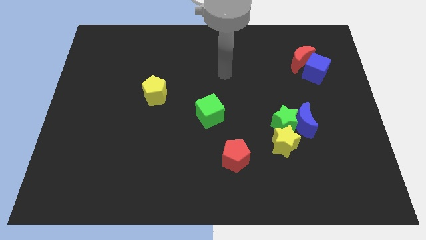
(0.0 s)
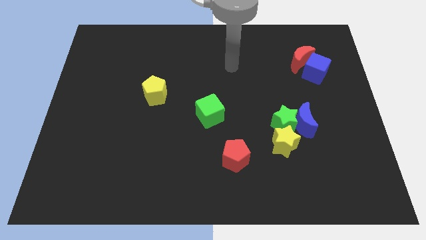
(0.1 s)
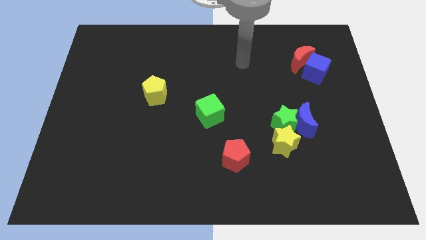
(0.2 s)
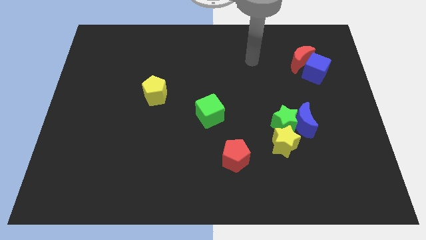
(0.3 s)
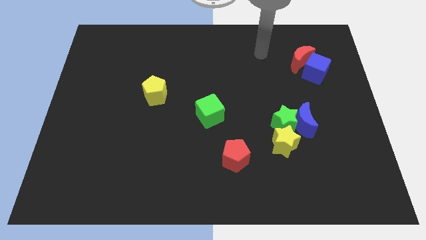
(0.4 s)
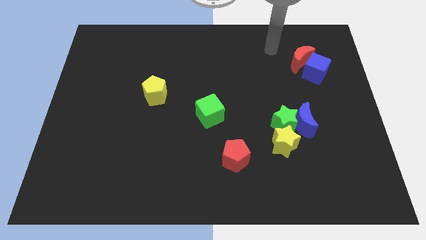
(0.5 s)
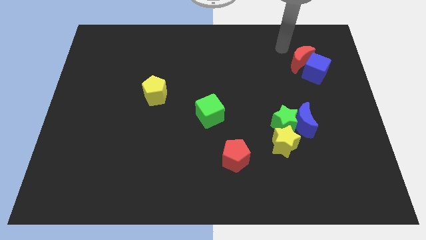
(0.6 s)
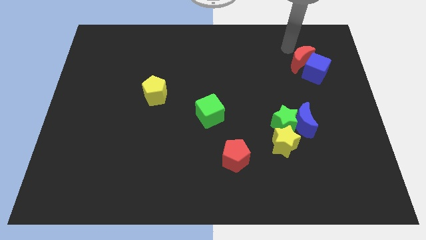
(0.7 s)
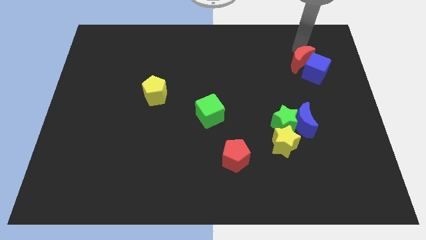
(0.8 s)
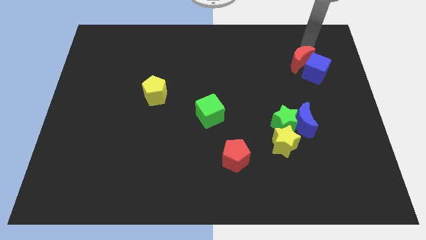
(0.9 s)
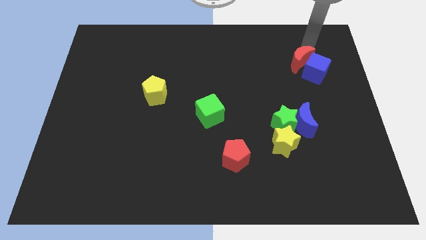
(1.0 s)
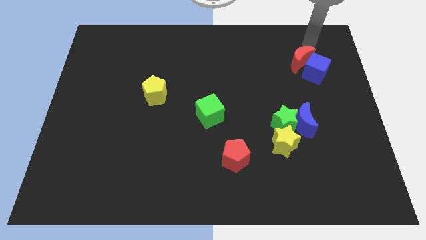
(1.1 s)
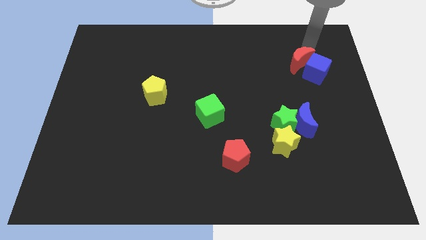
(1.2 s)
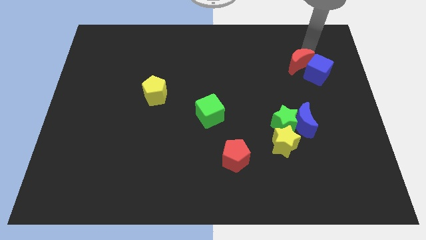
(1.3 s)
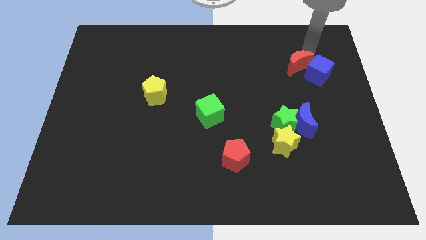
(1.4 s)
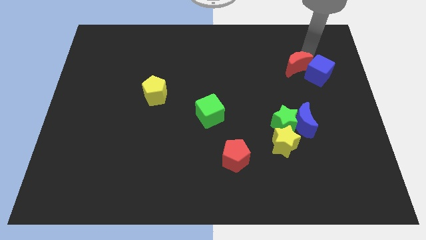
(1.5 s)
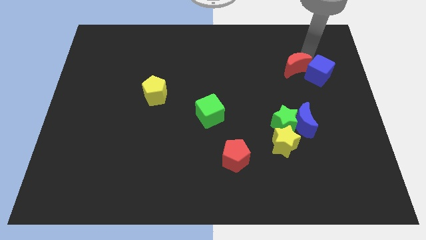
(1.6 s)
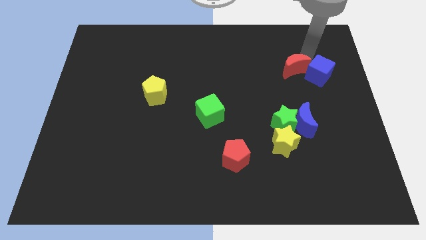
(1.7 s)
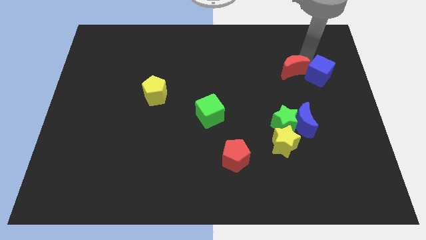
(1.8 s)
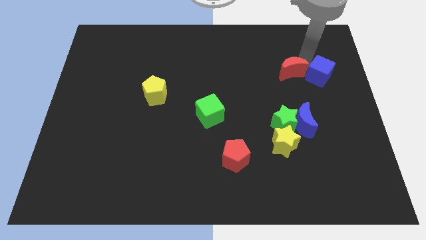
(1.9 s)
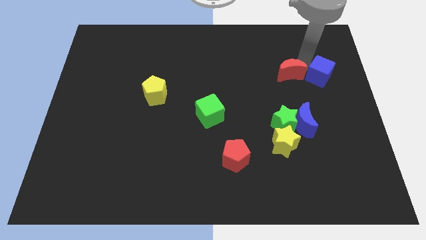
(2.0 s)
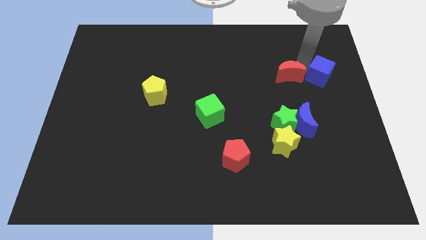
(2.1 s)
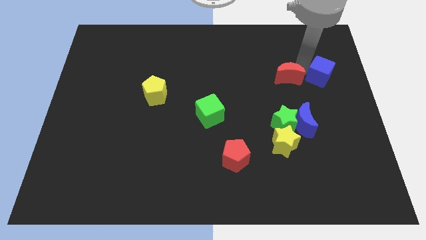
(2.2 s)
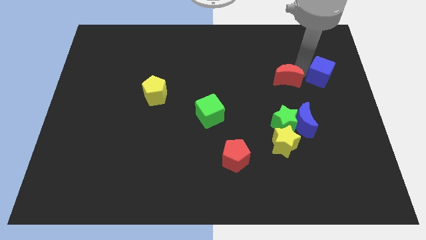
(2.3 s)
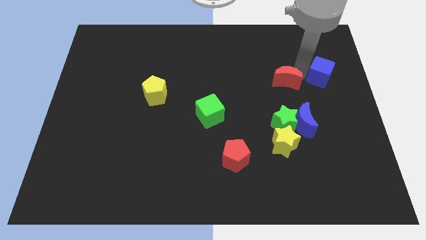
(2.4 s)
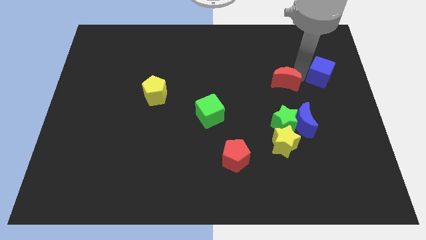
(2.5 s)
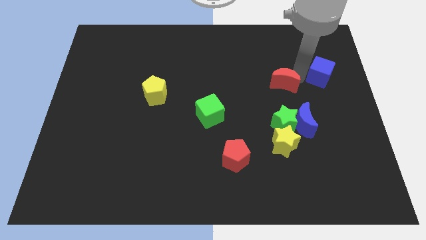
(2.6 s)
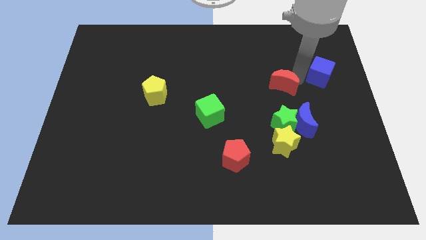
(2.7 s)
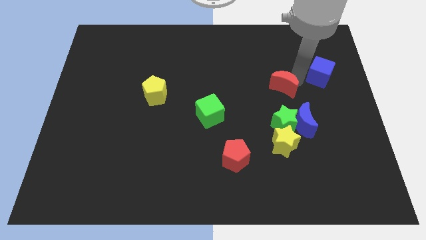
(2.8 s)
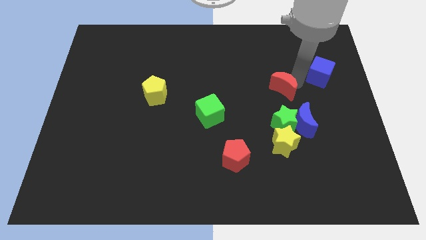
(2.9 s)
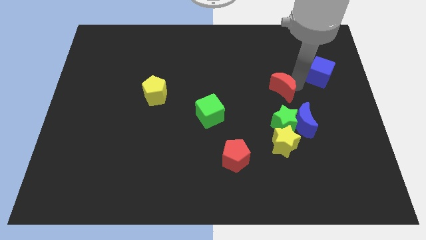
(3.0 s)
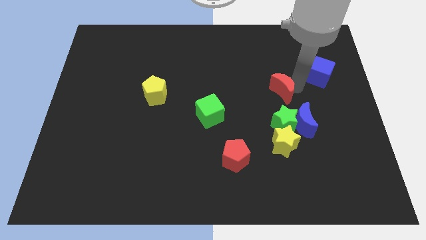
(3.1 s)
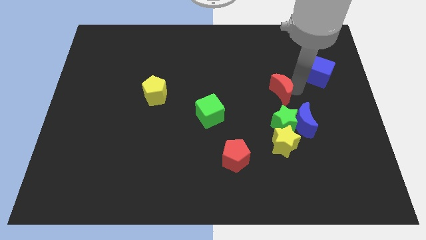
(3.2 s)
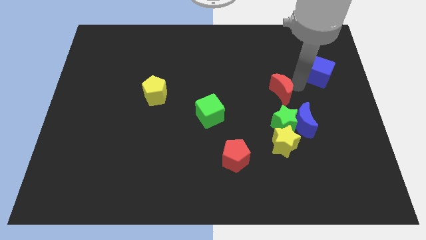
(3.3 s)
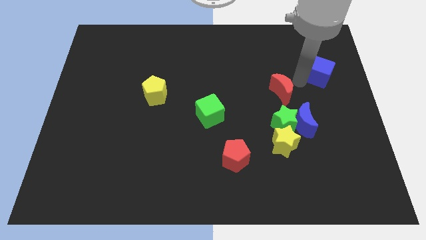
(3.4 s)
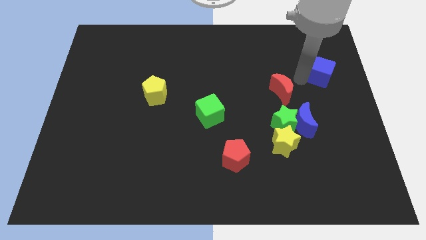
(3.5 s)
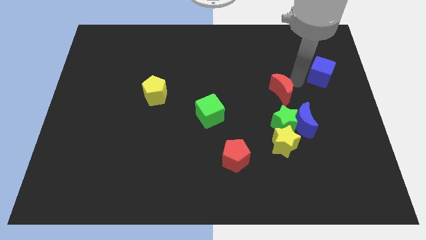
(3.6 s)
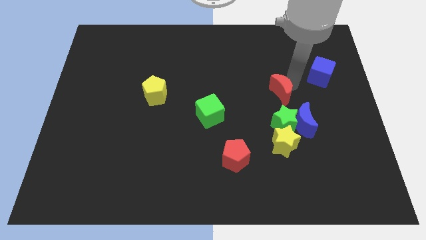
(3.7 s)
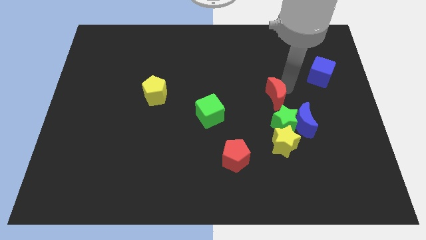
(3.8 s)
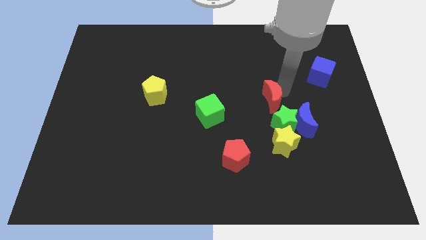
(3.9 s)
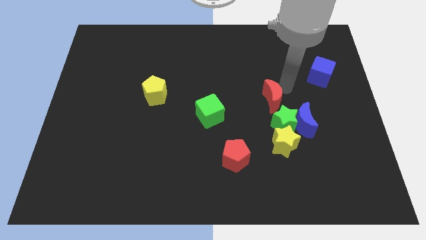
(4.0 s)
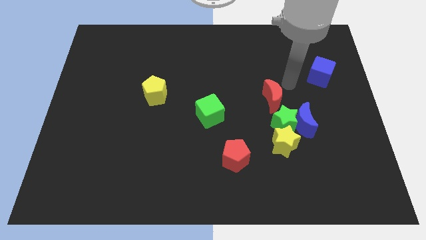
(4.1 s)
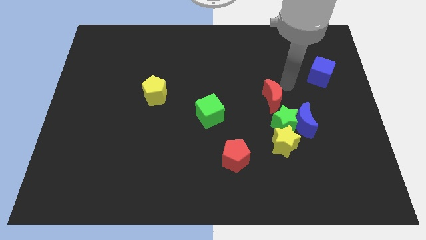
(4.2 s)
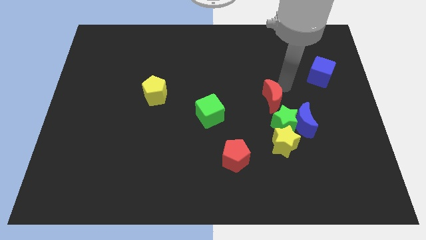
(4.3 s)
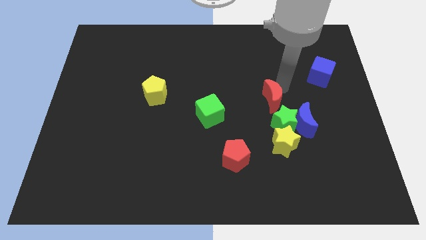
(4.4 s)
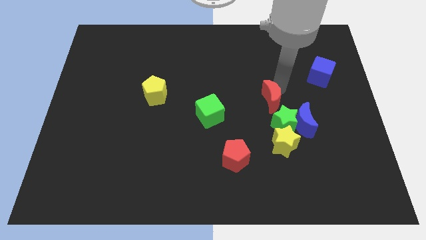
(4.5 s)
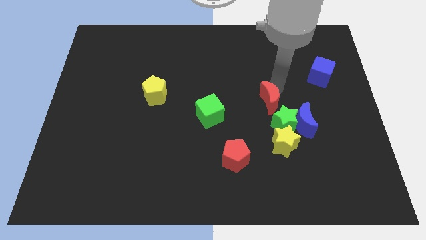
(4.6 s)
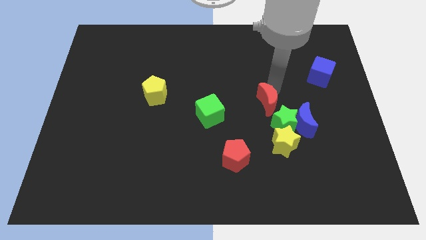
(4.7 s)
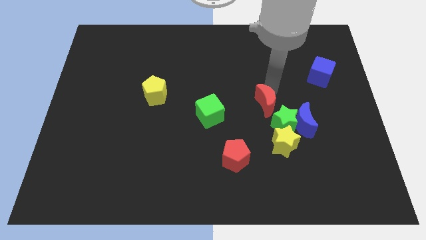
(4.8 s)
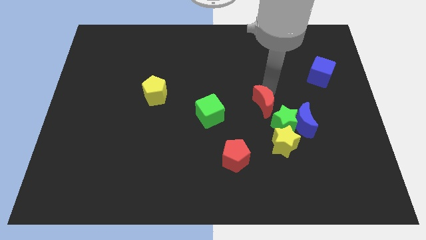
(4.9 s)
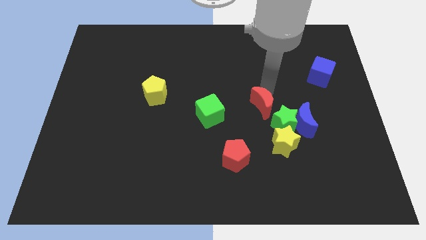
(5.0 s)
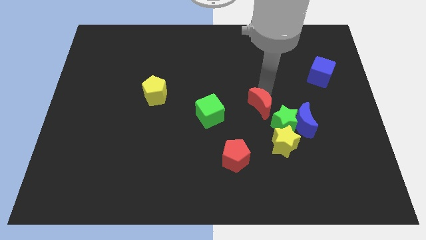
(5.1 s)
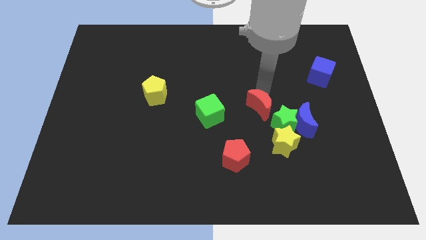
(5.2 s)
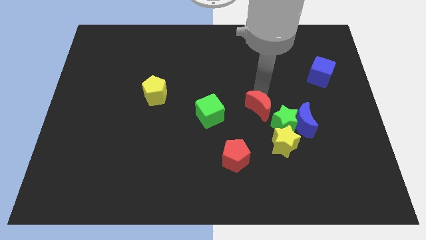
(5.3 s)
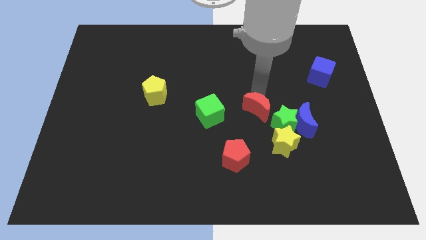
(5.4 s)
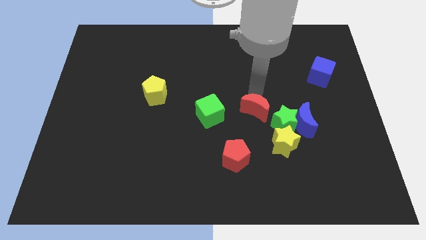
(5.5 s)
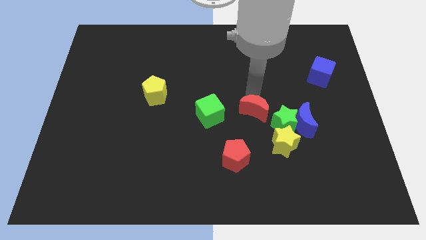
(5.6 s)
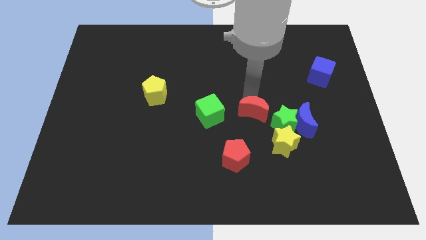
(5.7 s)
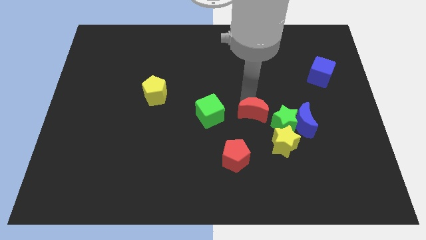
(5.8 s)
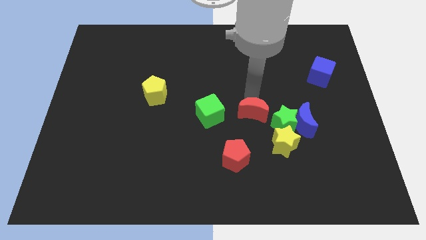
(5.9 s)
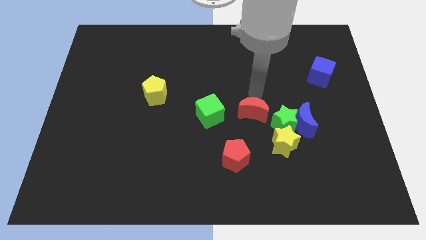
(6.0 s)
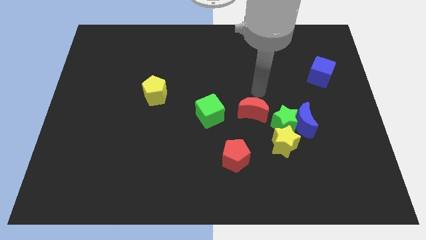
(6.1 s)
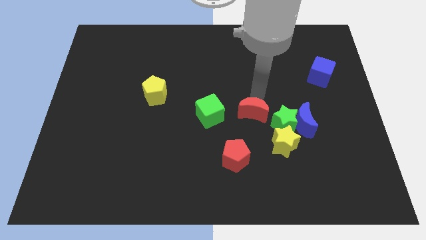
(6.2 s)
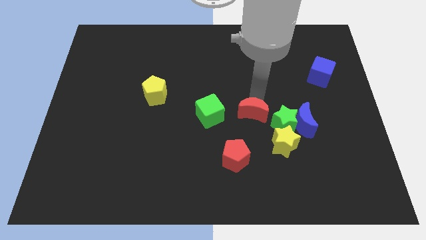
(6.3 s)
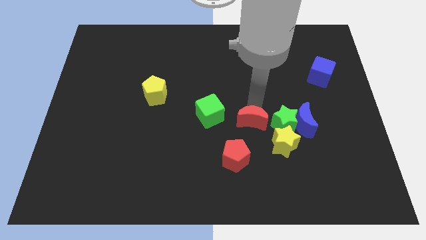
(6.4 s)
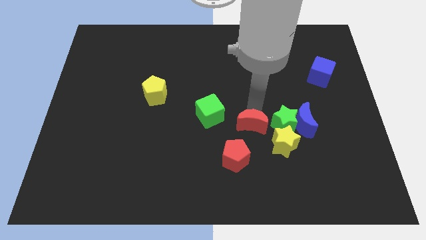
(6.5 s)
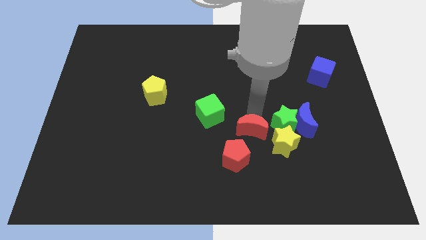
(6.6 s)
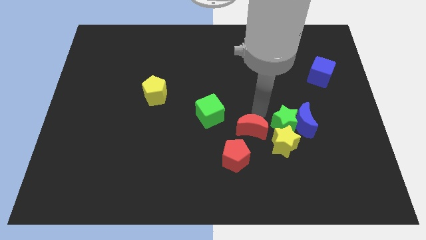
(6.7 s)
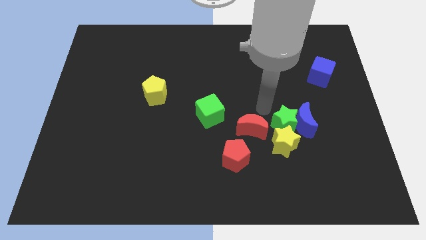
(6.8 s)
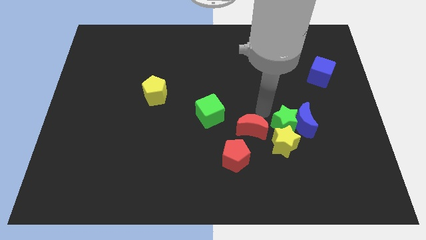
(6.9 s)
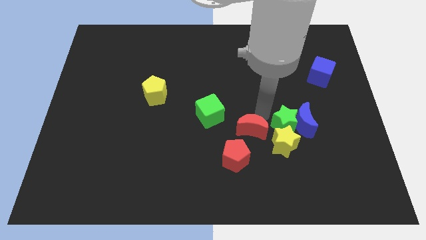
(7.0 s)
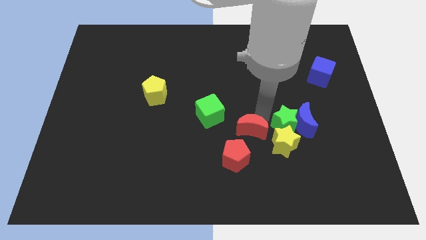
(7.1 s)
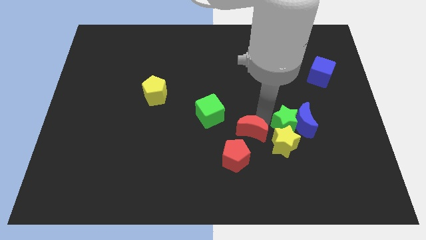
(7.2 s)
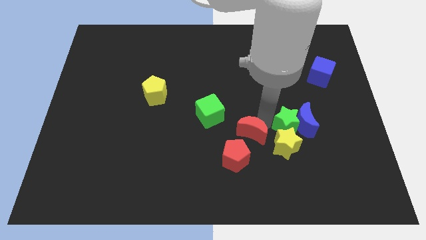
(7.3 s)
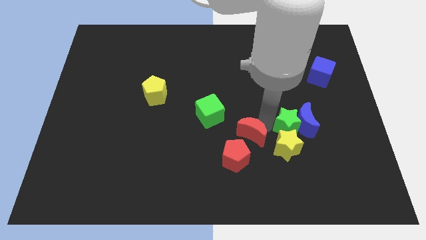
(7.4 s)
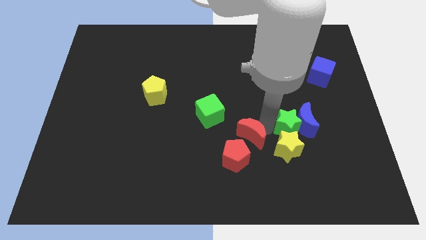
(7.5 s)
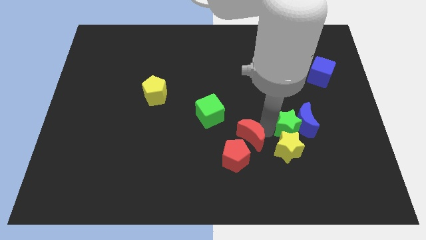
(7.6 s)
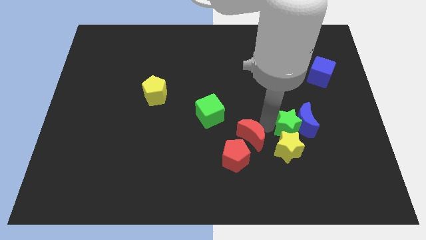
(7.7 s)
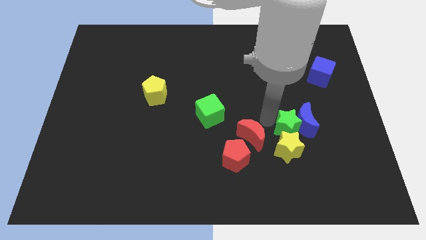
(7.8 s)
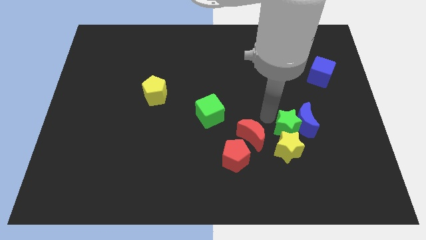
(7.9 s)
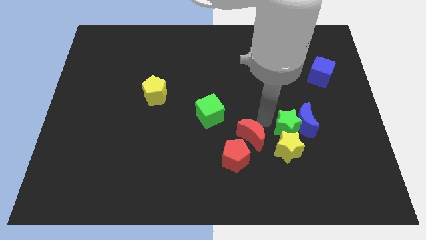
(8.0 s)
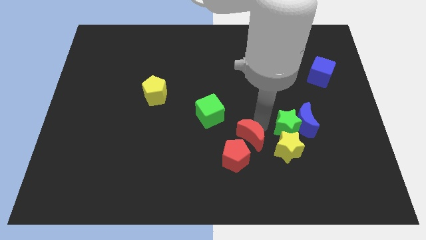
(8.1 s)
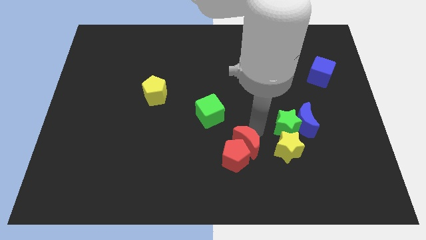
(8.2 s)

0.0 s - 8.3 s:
move the red moon next to the red pentagon
